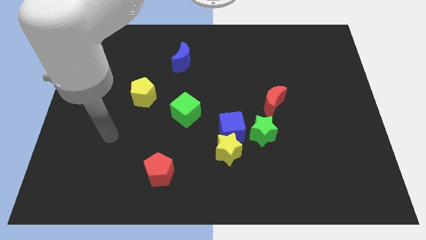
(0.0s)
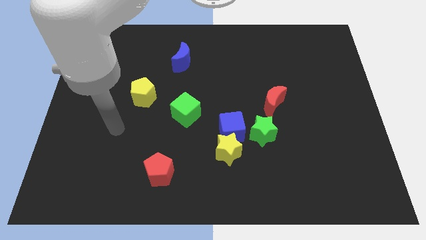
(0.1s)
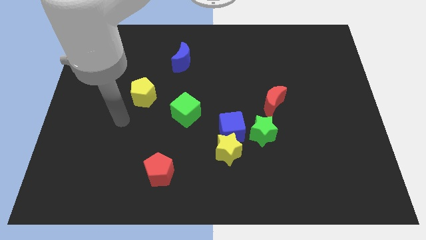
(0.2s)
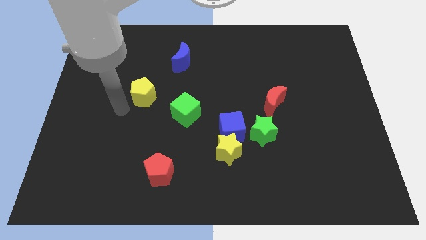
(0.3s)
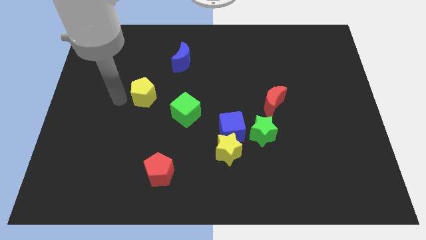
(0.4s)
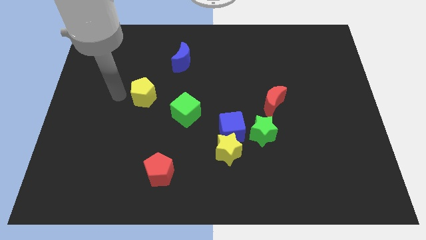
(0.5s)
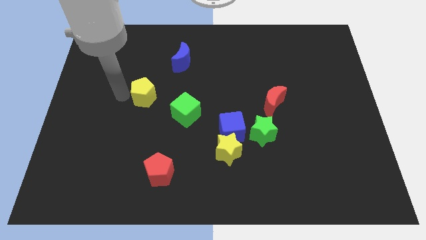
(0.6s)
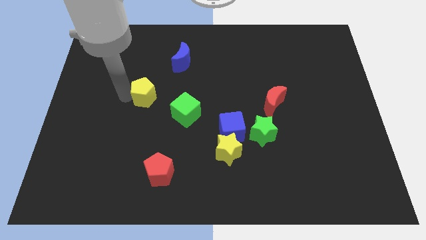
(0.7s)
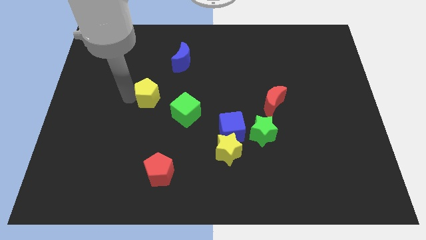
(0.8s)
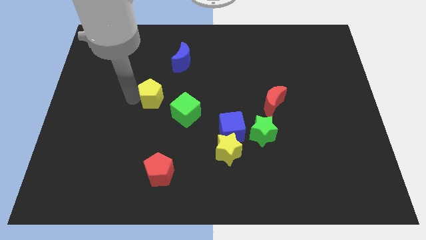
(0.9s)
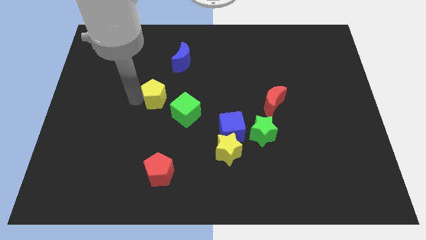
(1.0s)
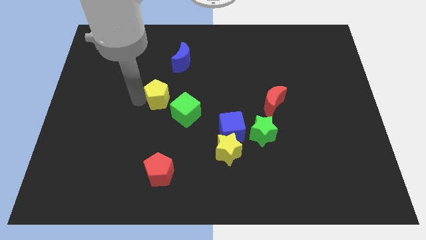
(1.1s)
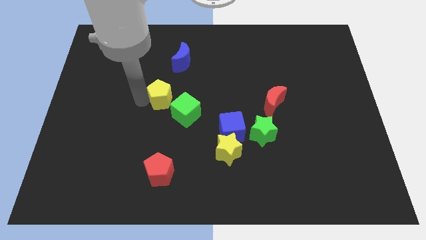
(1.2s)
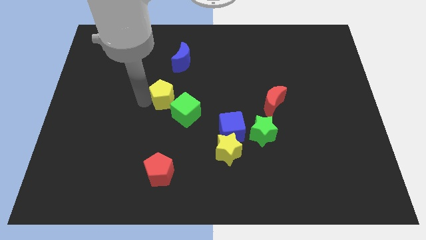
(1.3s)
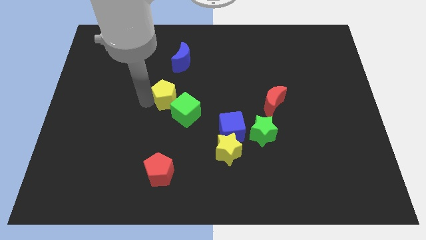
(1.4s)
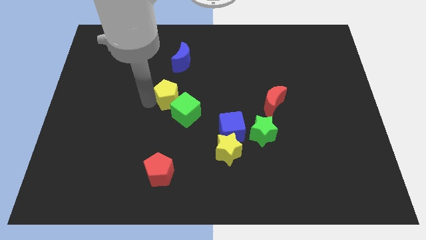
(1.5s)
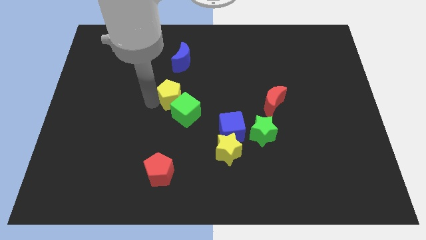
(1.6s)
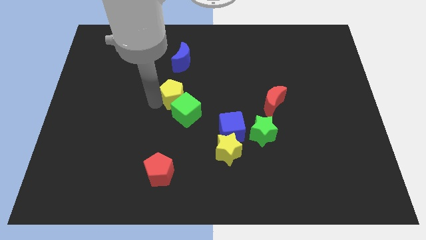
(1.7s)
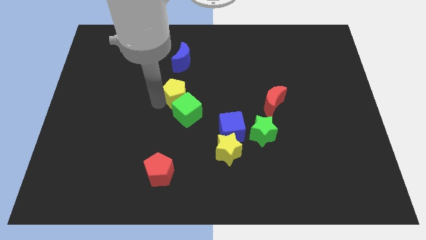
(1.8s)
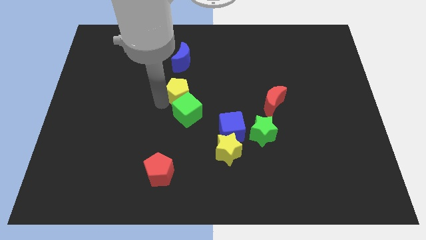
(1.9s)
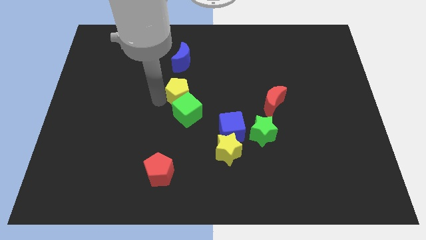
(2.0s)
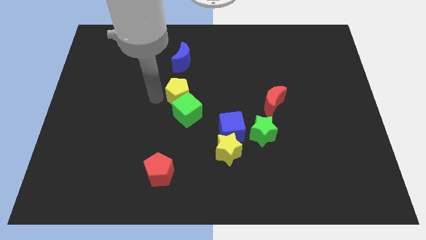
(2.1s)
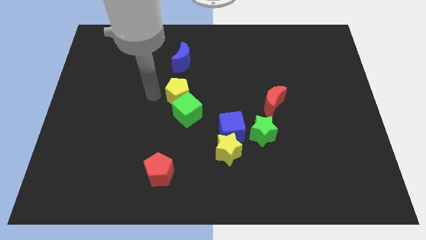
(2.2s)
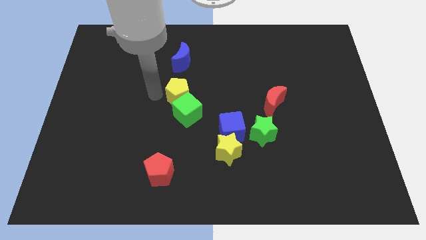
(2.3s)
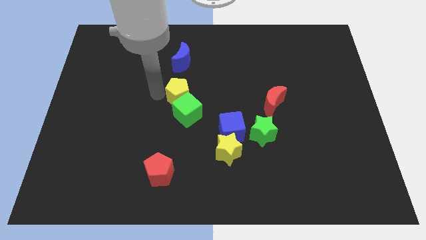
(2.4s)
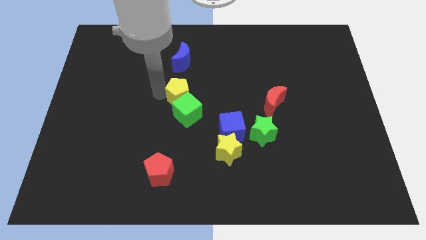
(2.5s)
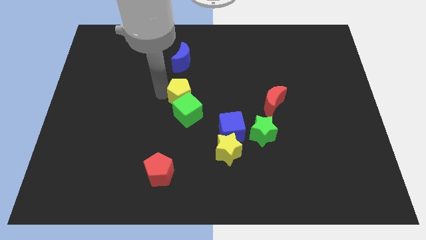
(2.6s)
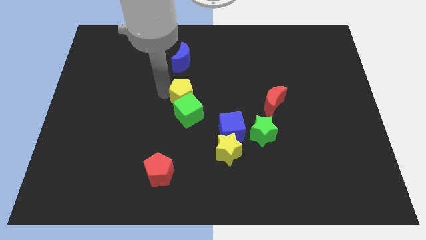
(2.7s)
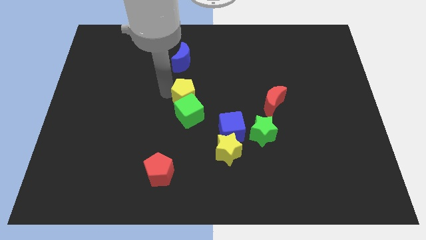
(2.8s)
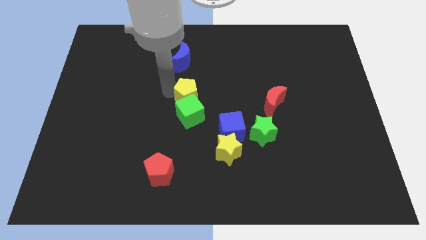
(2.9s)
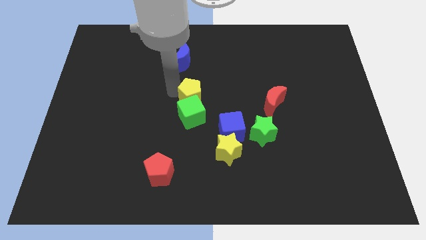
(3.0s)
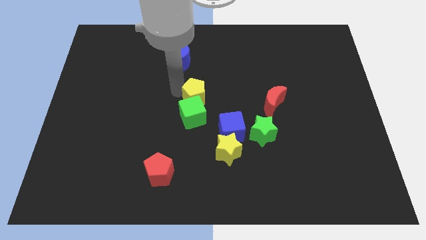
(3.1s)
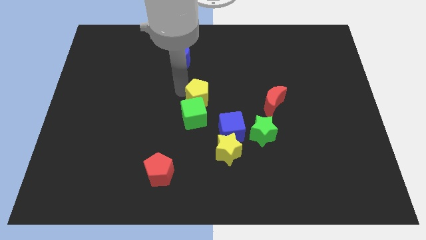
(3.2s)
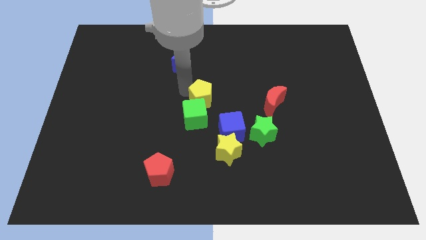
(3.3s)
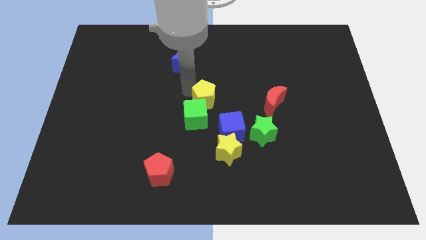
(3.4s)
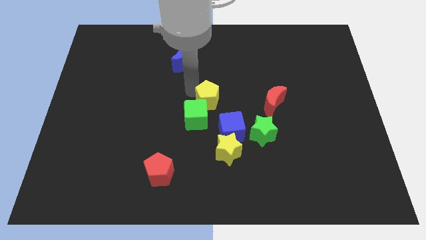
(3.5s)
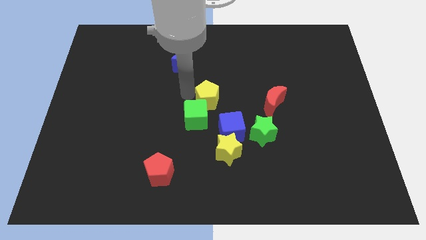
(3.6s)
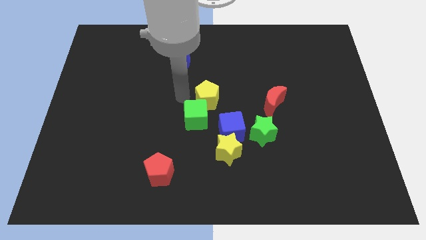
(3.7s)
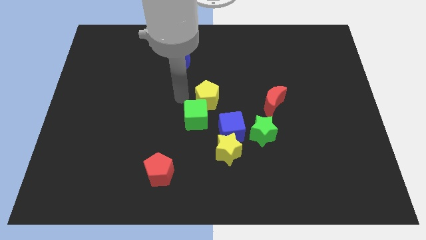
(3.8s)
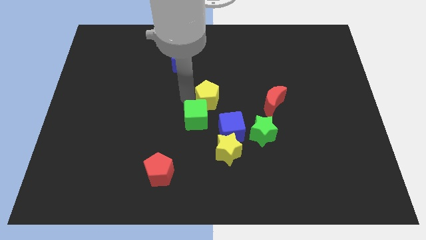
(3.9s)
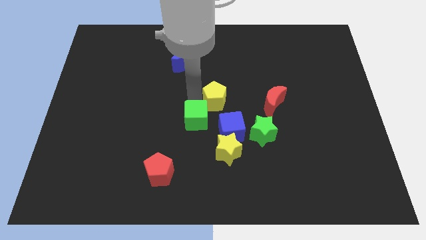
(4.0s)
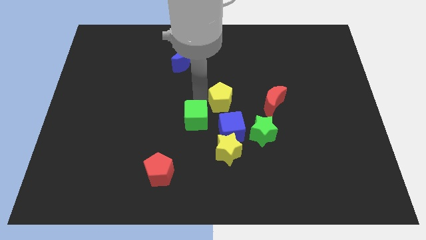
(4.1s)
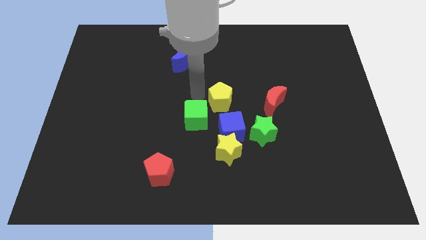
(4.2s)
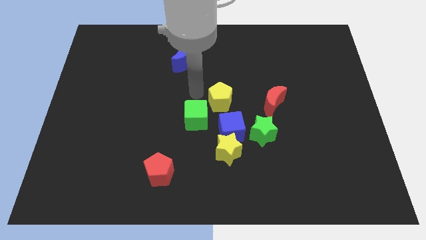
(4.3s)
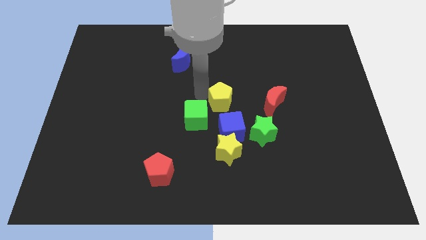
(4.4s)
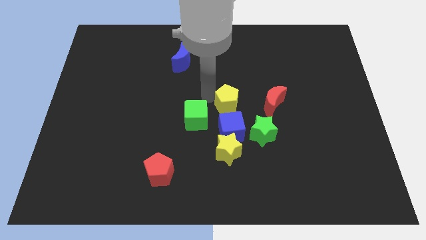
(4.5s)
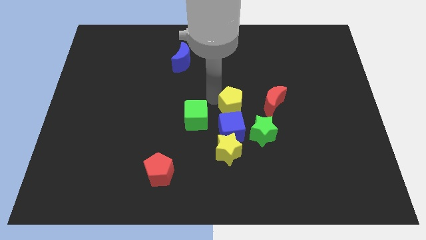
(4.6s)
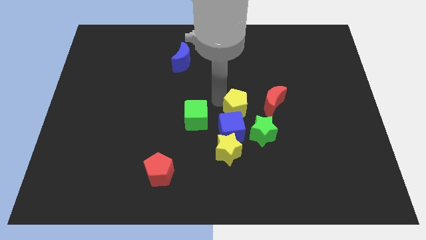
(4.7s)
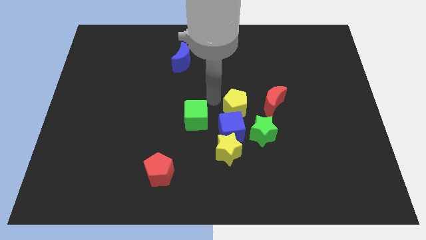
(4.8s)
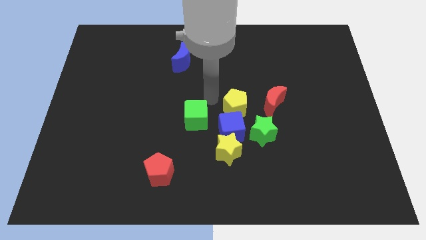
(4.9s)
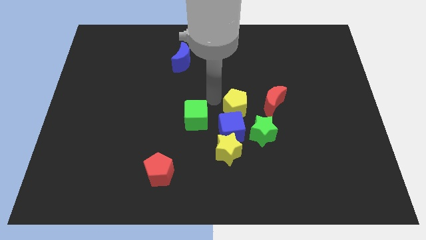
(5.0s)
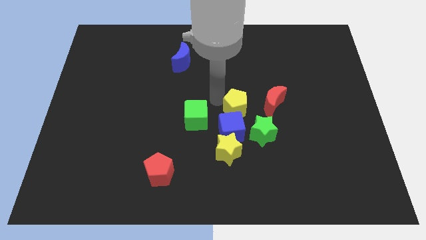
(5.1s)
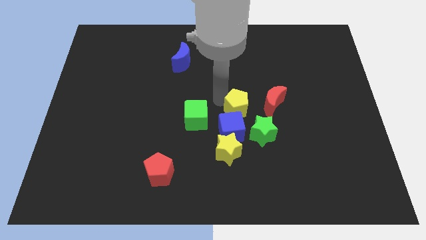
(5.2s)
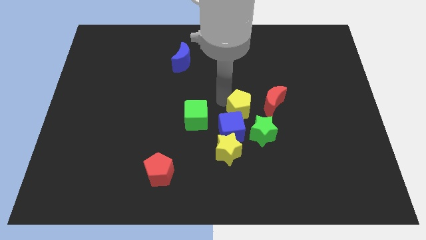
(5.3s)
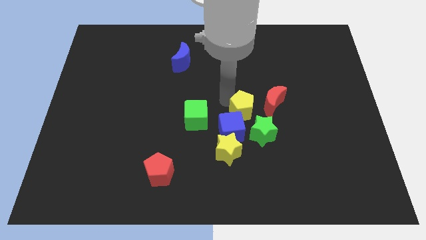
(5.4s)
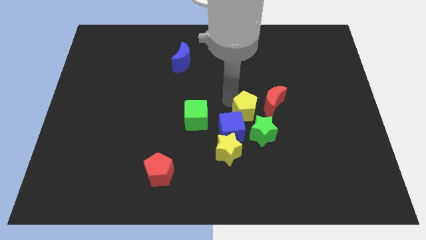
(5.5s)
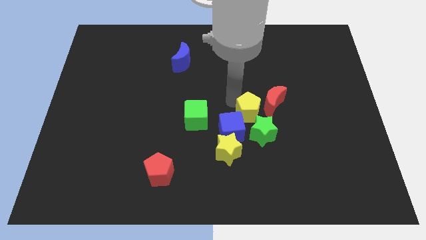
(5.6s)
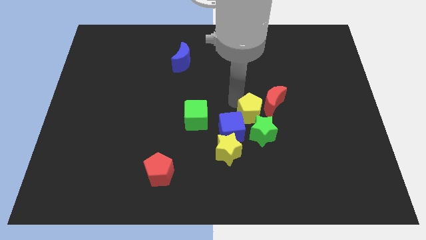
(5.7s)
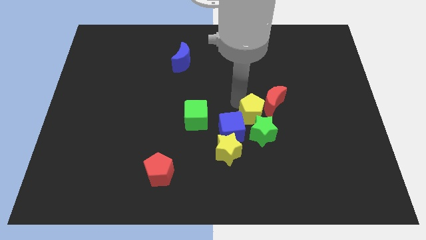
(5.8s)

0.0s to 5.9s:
move the yellow pentagon to the right of the blue cube

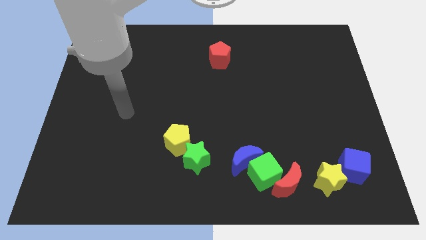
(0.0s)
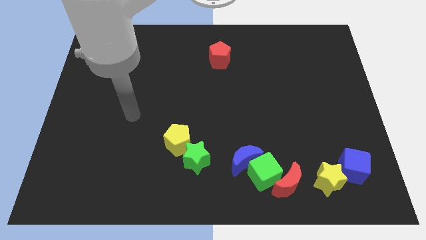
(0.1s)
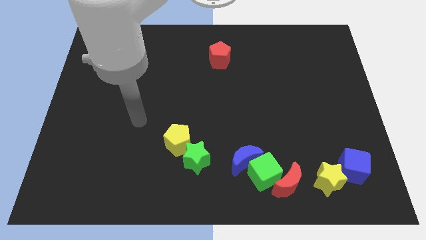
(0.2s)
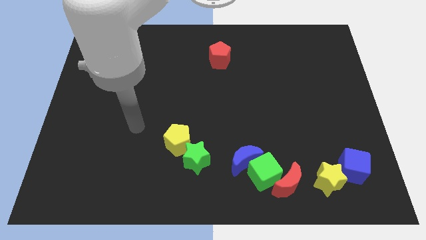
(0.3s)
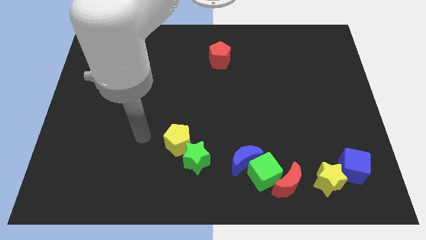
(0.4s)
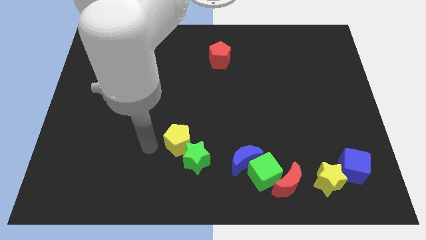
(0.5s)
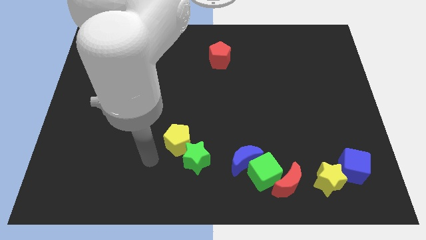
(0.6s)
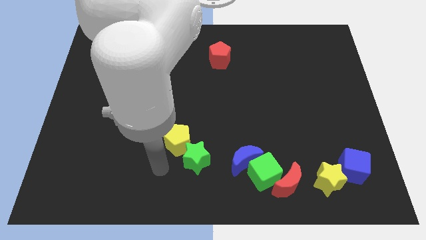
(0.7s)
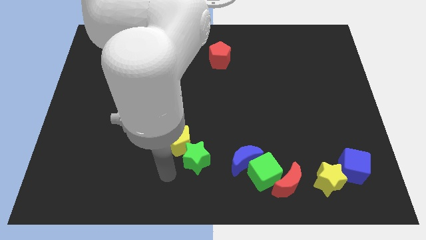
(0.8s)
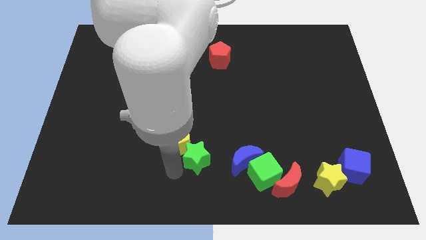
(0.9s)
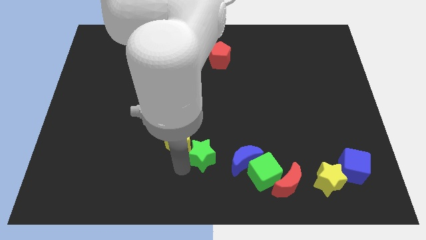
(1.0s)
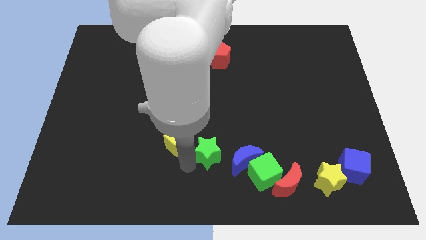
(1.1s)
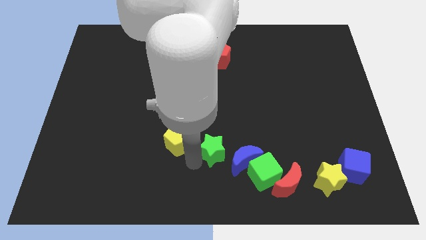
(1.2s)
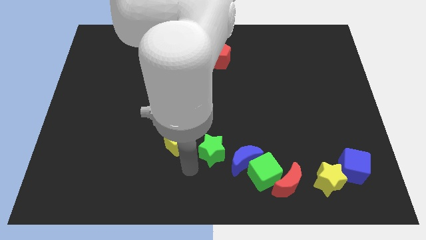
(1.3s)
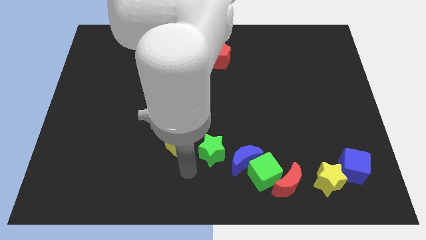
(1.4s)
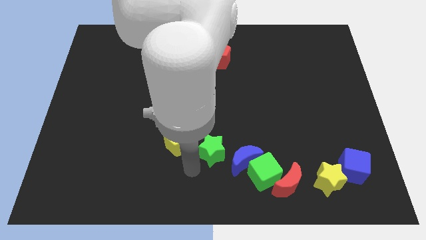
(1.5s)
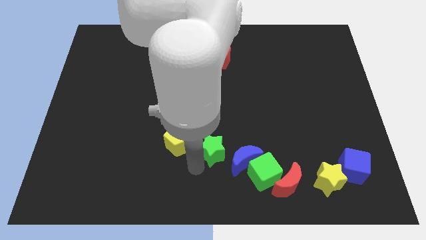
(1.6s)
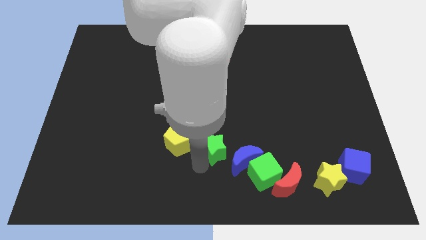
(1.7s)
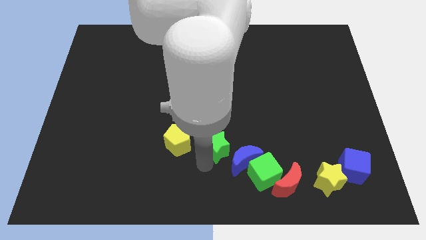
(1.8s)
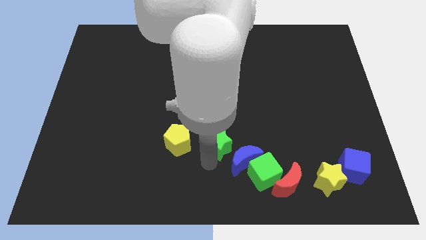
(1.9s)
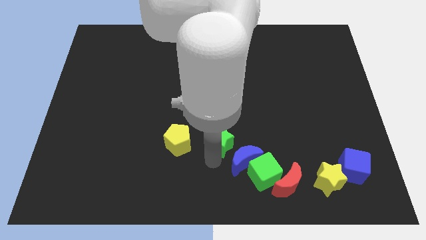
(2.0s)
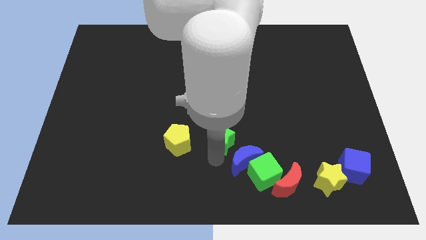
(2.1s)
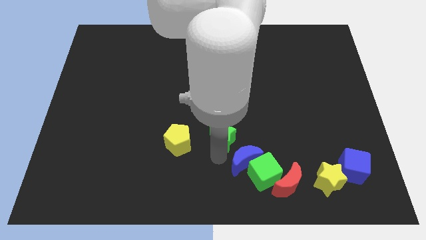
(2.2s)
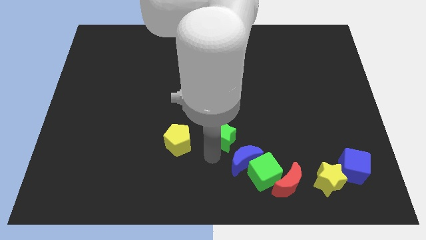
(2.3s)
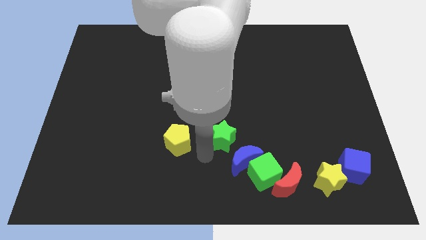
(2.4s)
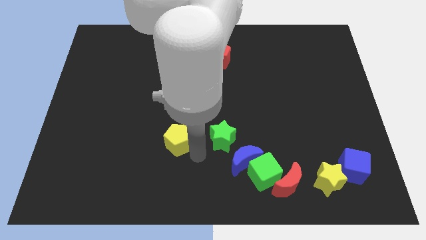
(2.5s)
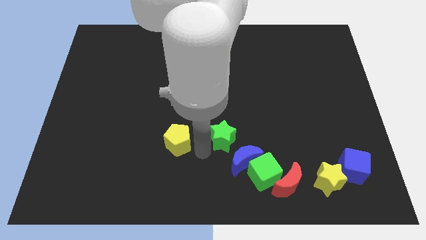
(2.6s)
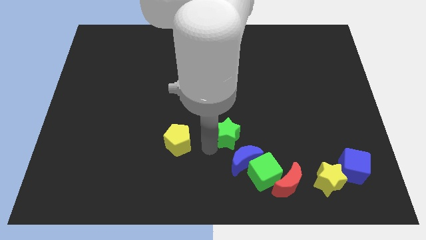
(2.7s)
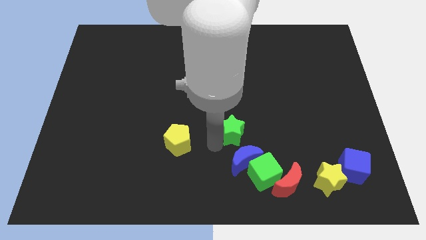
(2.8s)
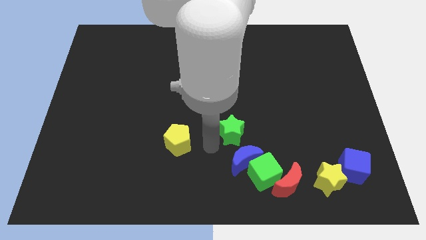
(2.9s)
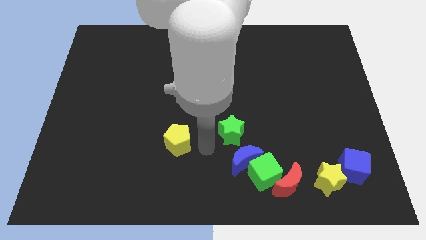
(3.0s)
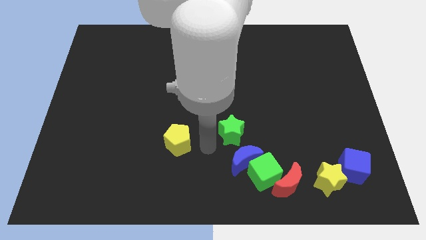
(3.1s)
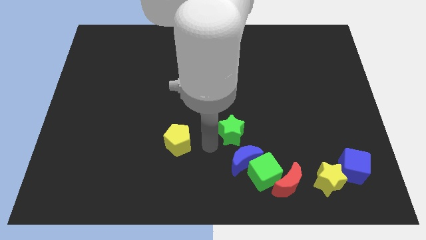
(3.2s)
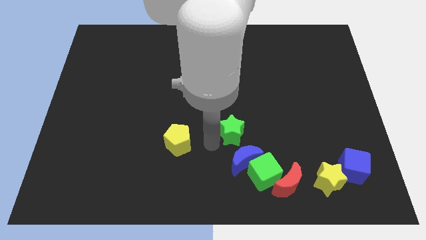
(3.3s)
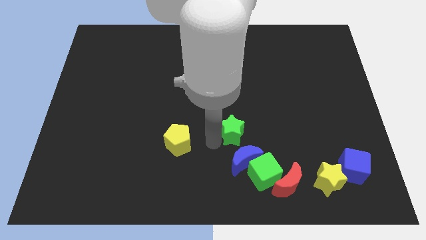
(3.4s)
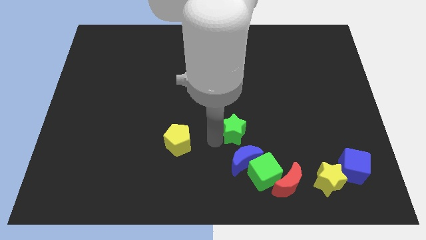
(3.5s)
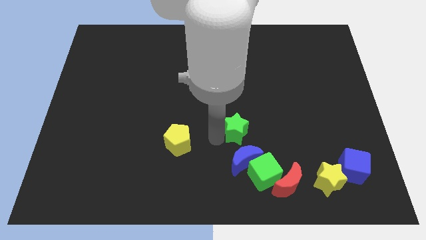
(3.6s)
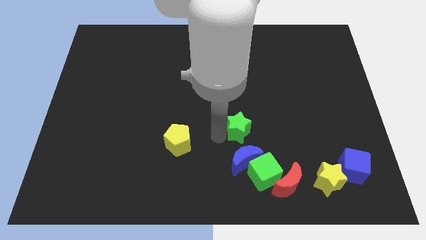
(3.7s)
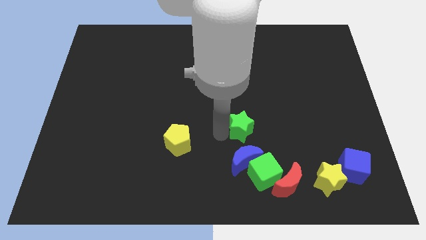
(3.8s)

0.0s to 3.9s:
move the green star to the top side of the green cube
